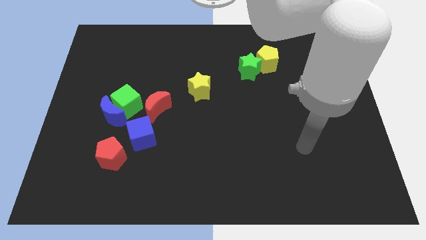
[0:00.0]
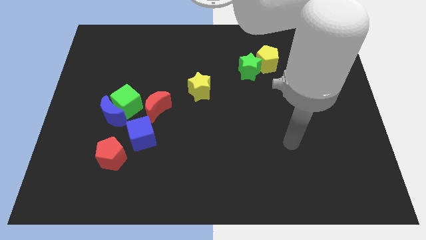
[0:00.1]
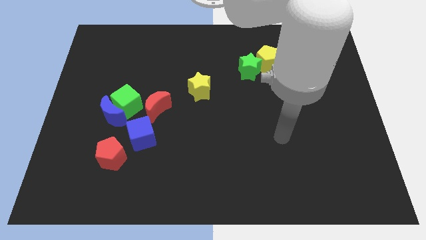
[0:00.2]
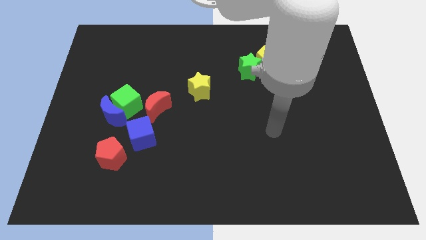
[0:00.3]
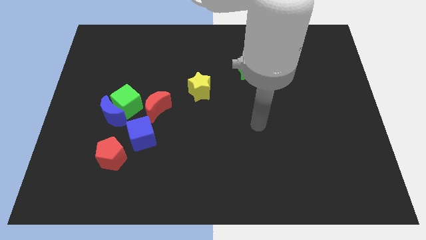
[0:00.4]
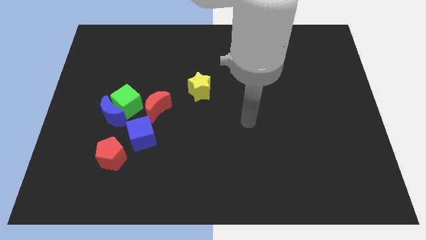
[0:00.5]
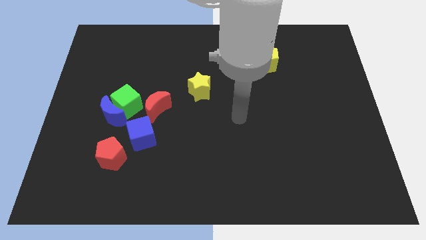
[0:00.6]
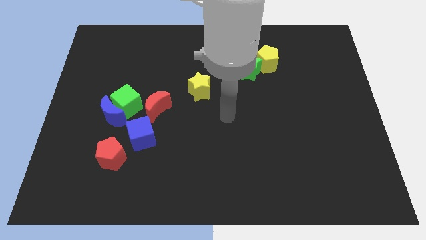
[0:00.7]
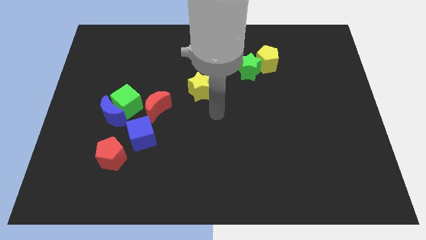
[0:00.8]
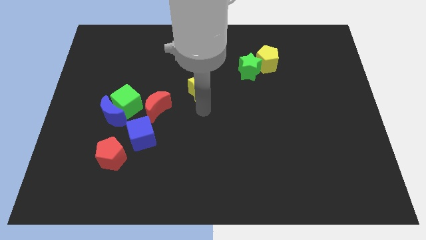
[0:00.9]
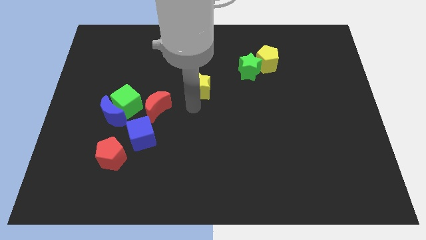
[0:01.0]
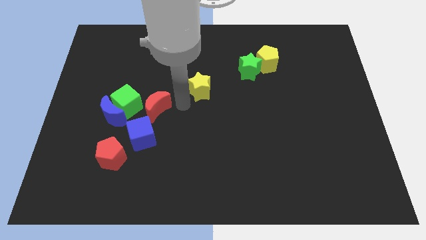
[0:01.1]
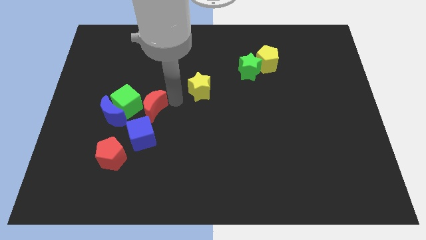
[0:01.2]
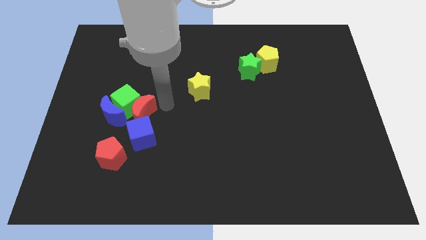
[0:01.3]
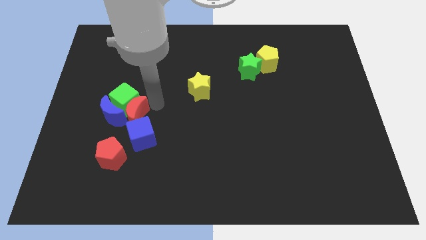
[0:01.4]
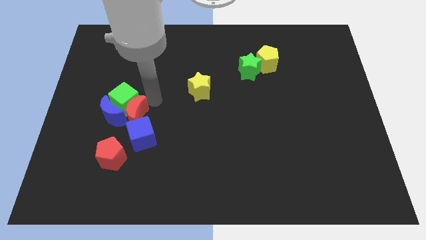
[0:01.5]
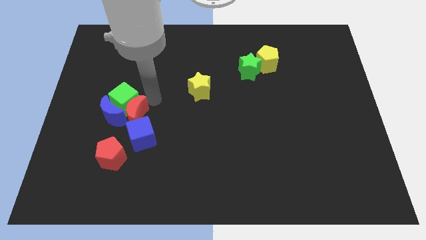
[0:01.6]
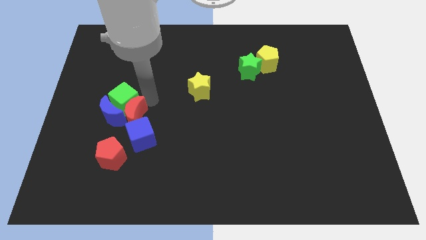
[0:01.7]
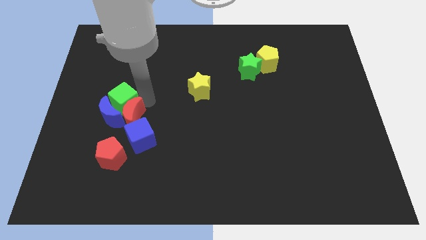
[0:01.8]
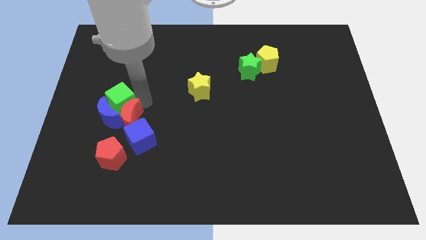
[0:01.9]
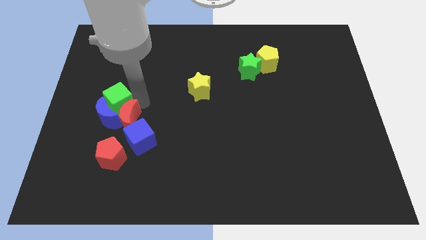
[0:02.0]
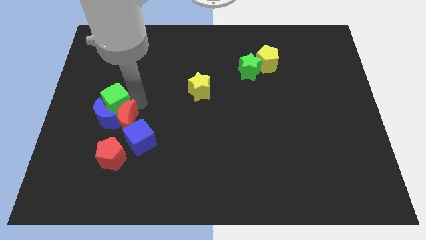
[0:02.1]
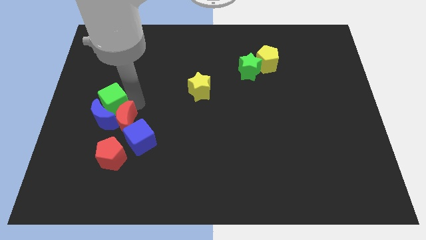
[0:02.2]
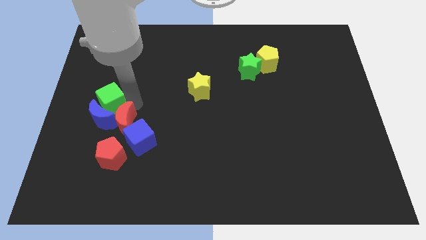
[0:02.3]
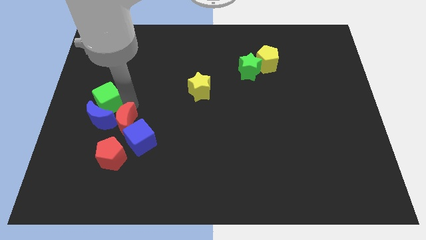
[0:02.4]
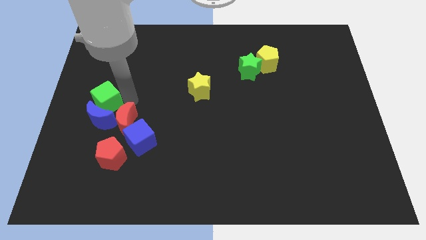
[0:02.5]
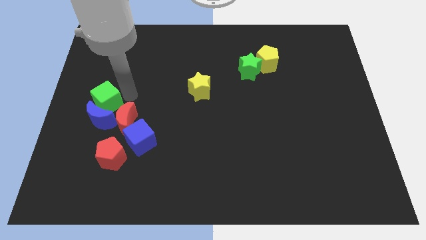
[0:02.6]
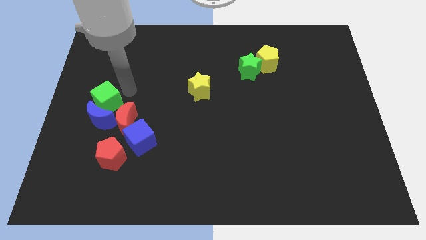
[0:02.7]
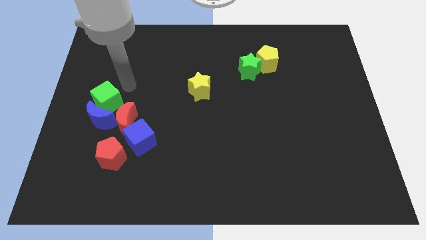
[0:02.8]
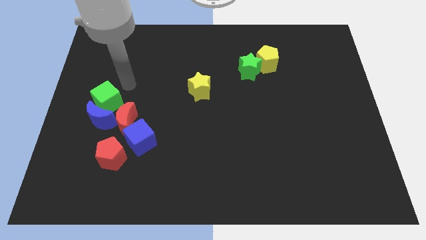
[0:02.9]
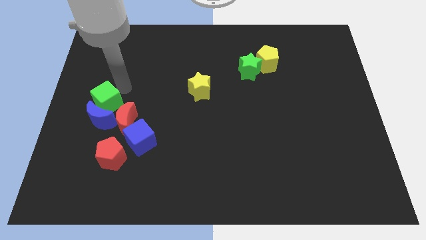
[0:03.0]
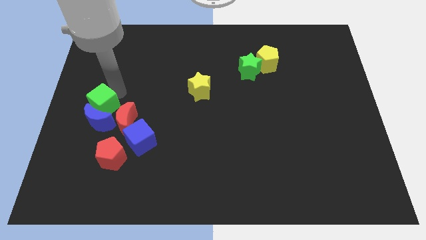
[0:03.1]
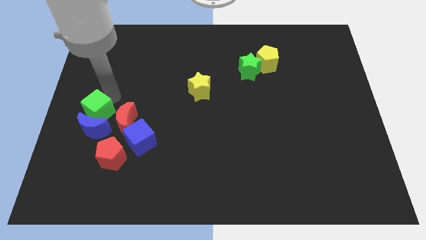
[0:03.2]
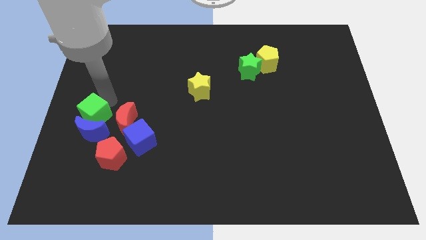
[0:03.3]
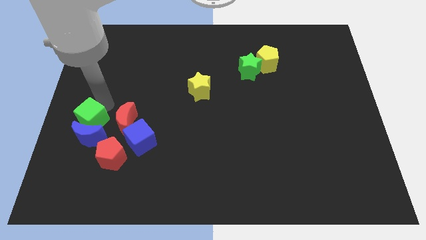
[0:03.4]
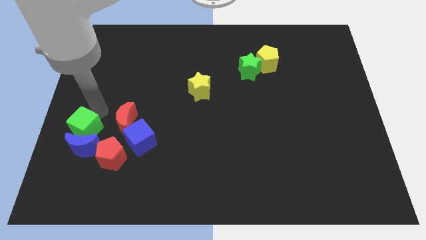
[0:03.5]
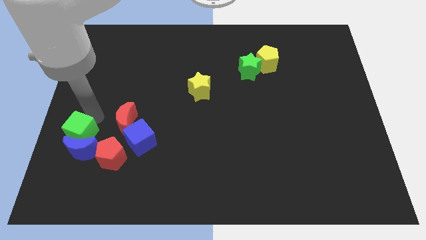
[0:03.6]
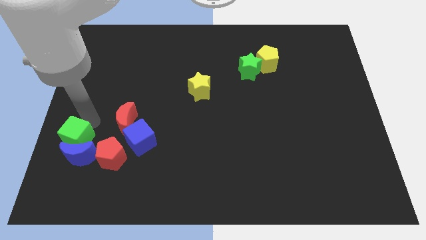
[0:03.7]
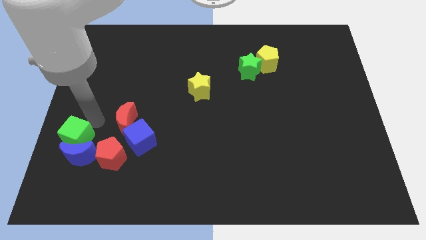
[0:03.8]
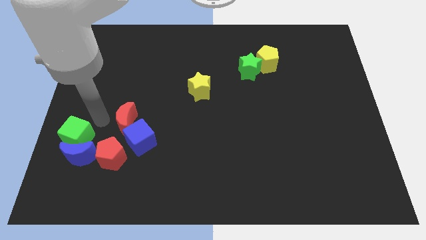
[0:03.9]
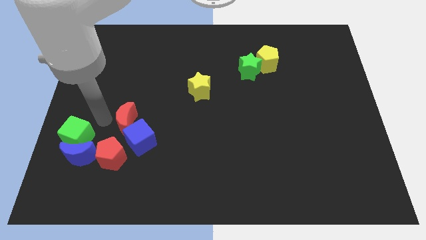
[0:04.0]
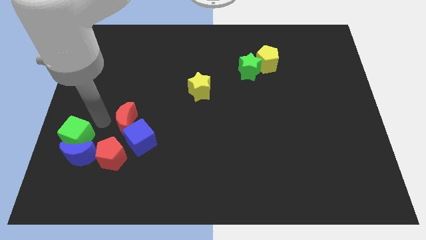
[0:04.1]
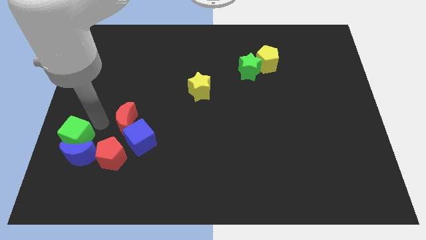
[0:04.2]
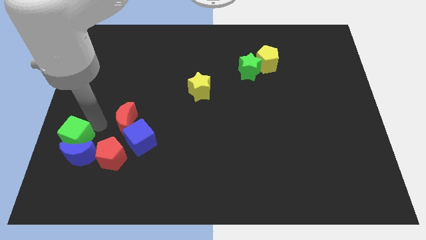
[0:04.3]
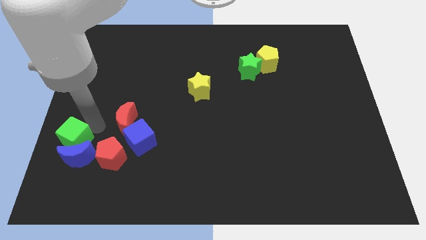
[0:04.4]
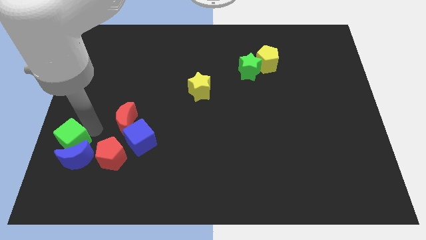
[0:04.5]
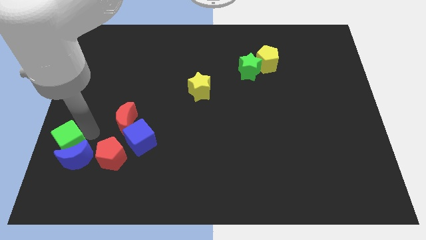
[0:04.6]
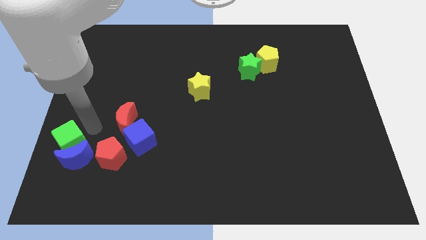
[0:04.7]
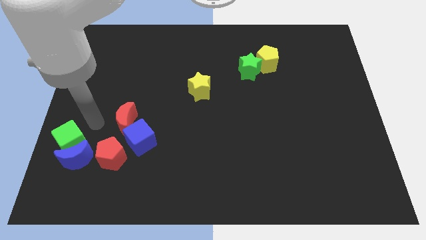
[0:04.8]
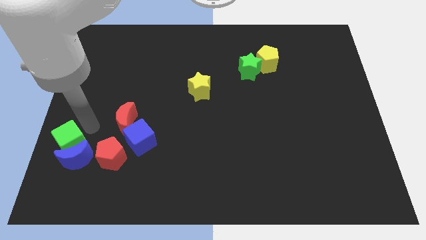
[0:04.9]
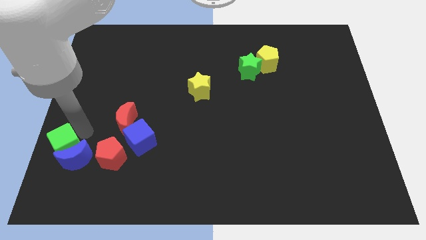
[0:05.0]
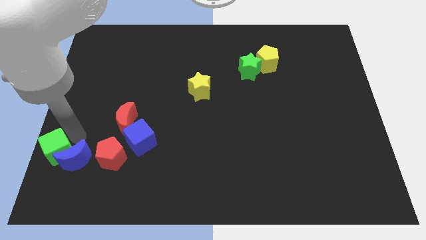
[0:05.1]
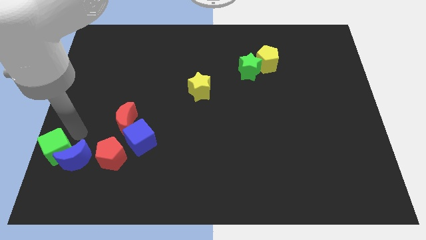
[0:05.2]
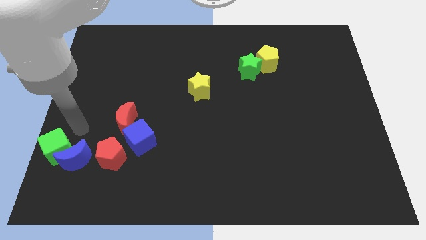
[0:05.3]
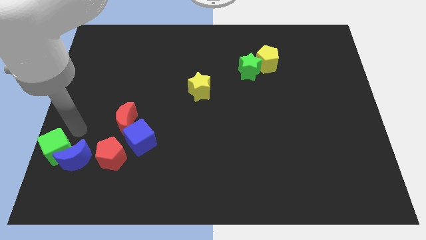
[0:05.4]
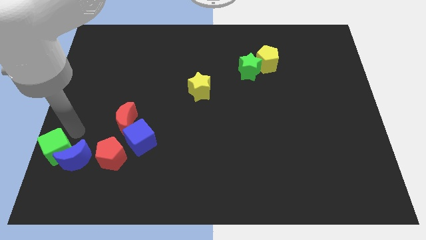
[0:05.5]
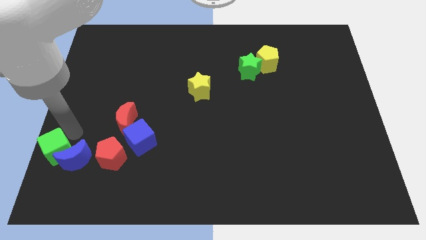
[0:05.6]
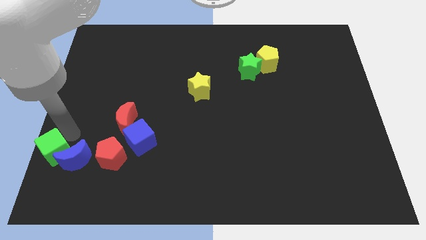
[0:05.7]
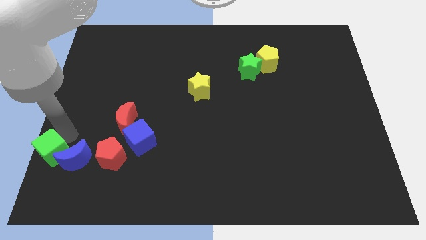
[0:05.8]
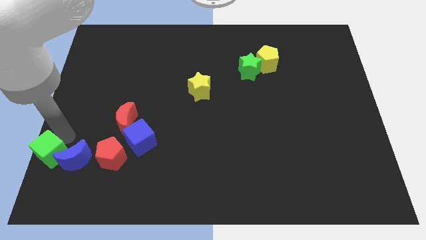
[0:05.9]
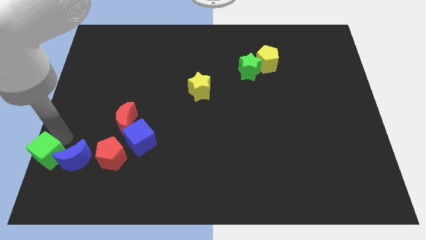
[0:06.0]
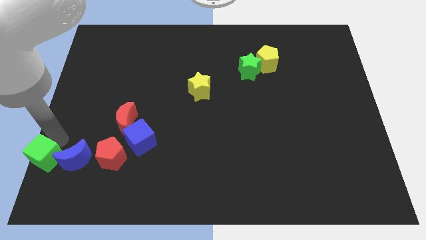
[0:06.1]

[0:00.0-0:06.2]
slide the green cube to the bottom left of the board
